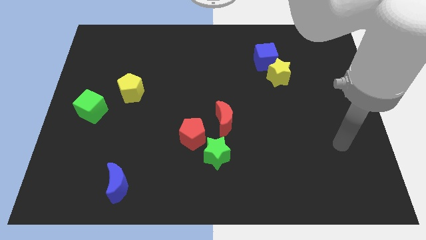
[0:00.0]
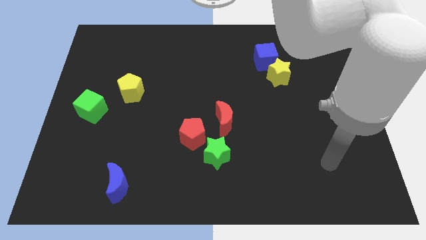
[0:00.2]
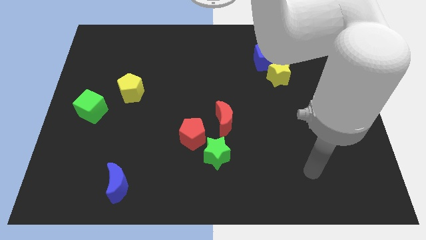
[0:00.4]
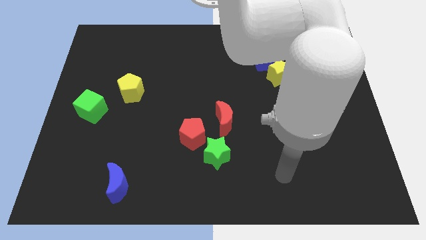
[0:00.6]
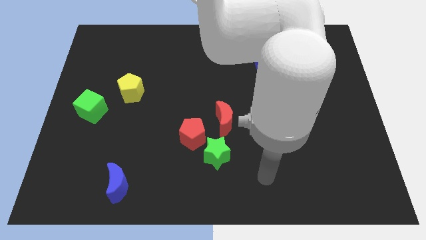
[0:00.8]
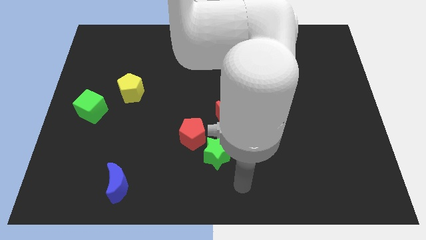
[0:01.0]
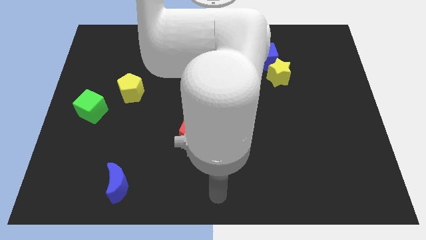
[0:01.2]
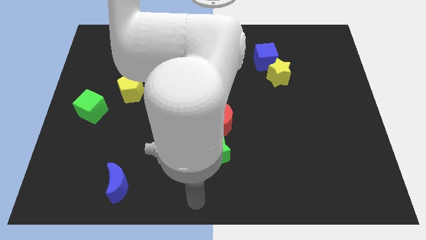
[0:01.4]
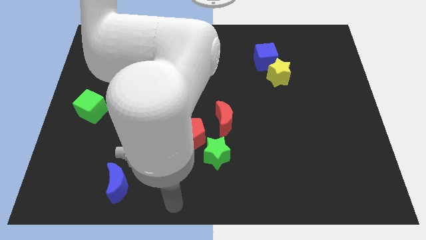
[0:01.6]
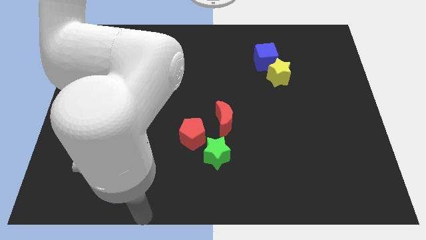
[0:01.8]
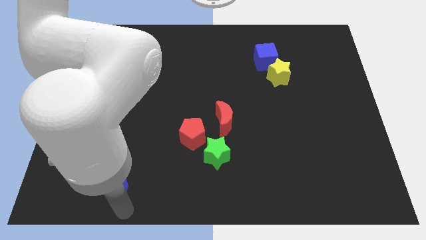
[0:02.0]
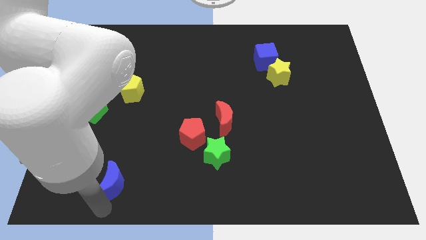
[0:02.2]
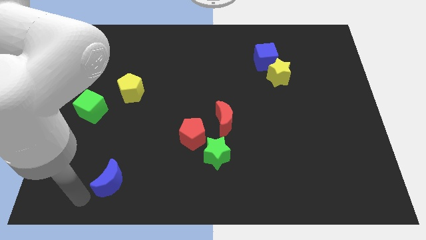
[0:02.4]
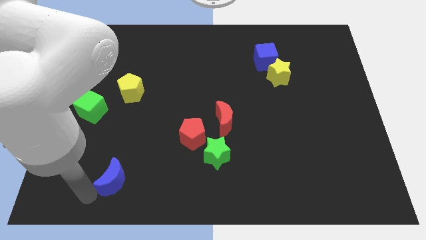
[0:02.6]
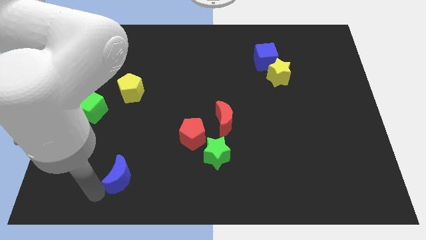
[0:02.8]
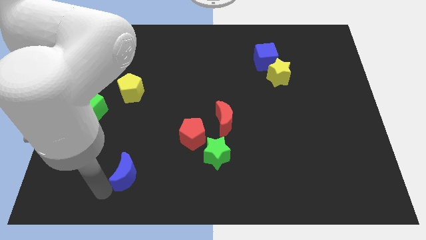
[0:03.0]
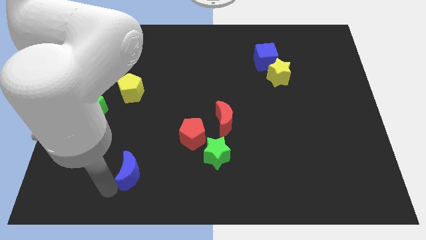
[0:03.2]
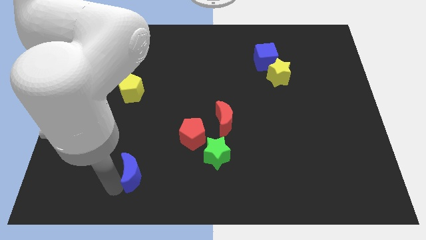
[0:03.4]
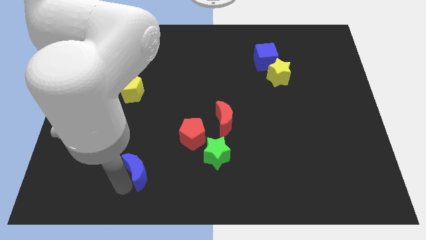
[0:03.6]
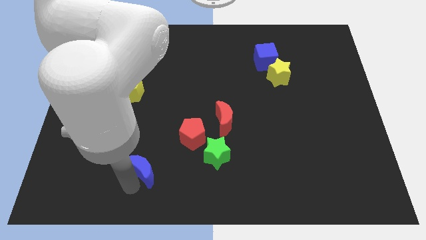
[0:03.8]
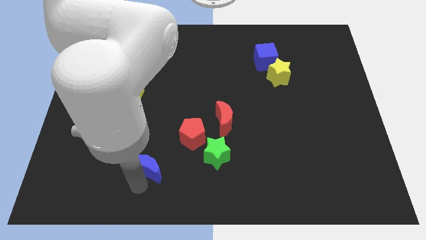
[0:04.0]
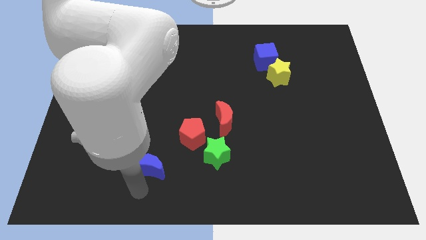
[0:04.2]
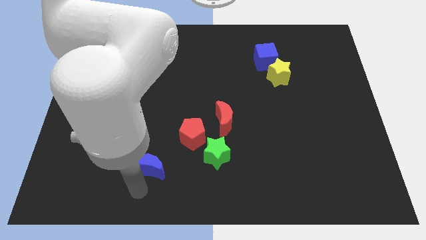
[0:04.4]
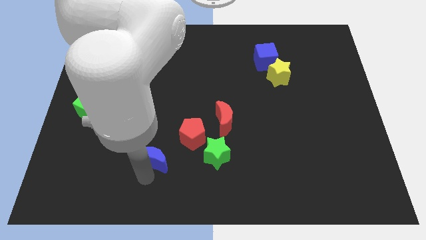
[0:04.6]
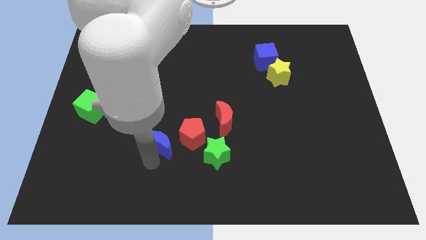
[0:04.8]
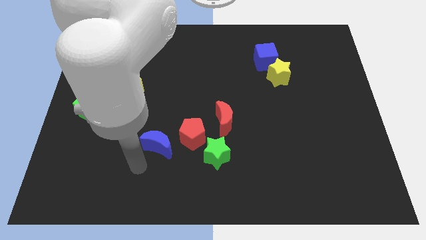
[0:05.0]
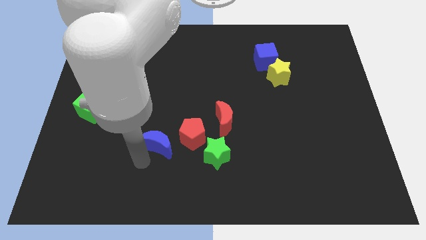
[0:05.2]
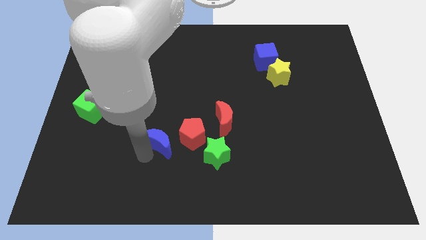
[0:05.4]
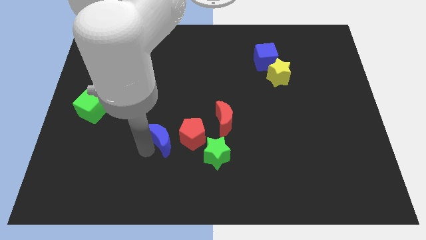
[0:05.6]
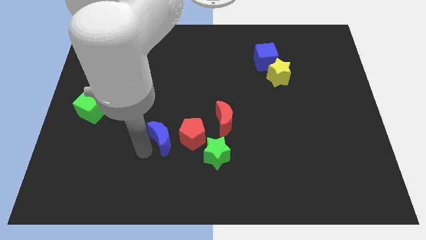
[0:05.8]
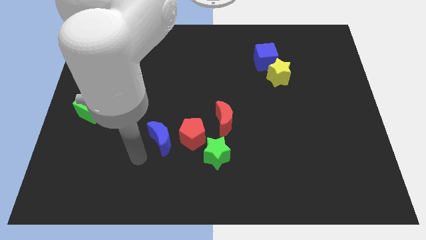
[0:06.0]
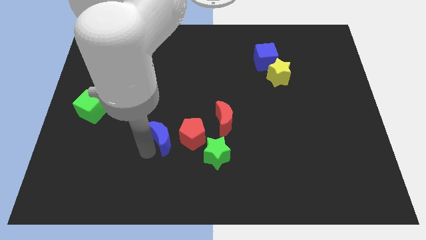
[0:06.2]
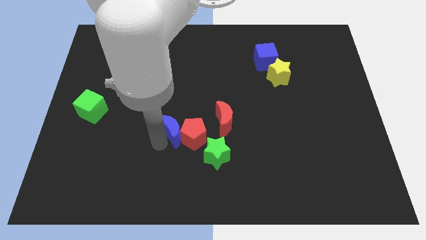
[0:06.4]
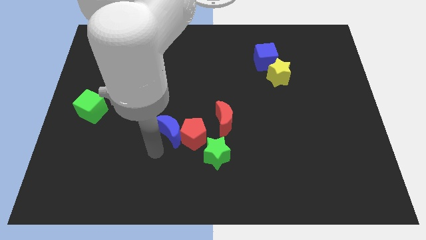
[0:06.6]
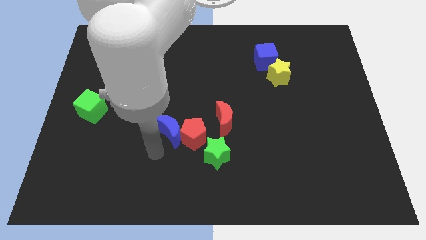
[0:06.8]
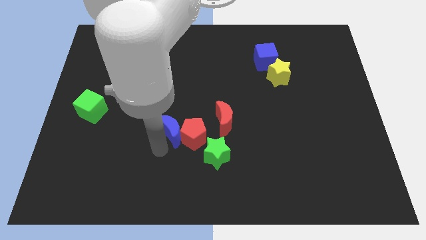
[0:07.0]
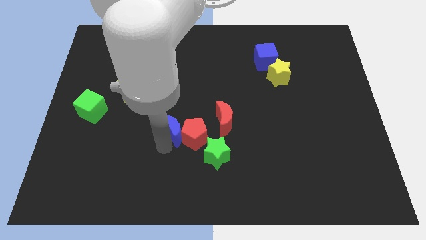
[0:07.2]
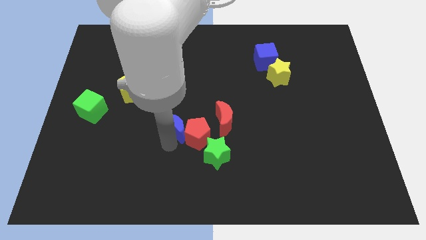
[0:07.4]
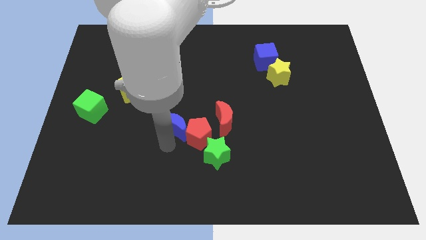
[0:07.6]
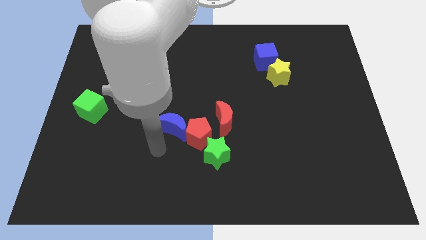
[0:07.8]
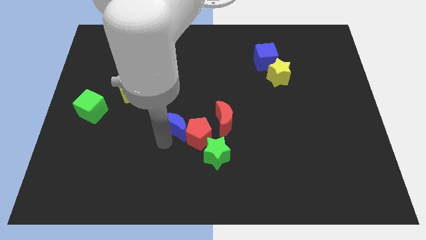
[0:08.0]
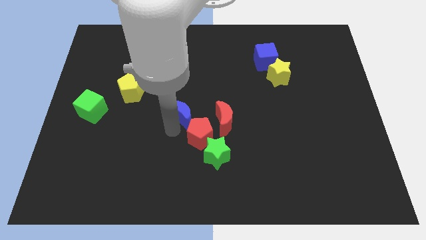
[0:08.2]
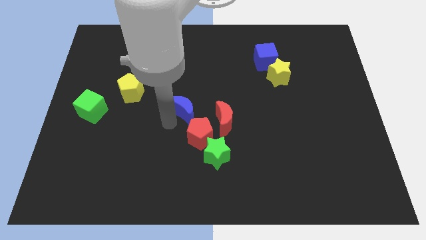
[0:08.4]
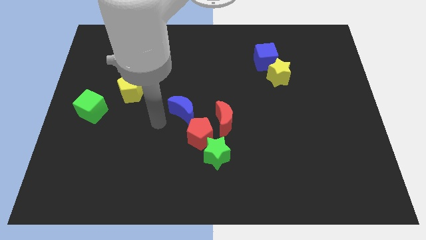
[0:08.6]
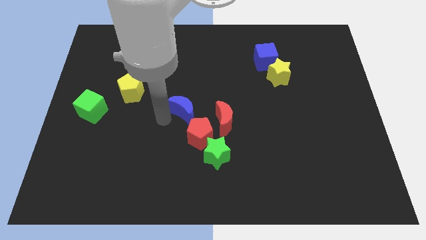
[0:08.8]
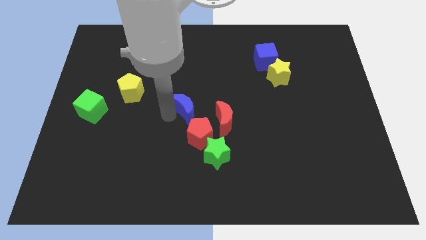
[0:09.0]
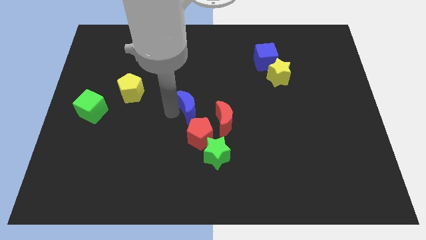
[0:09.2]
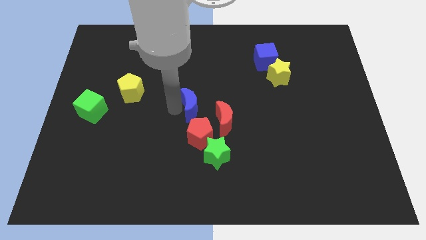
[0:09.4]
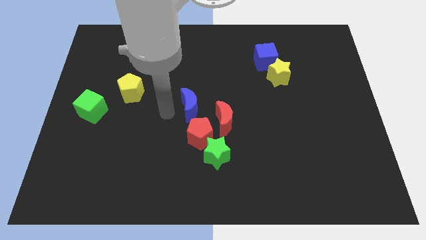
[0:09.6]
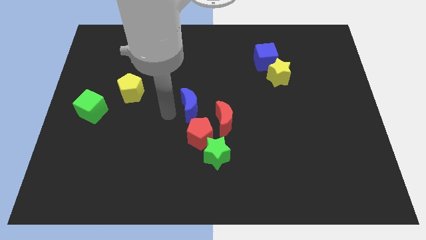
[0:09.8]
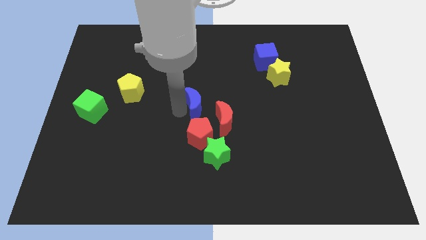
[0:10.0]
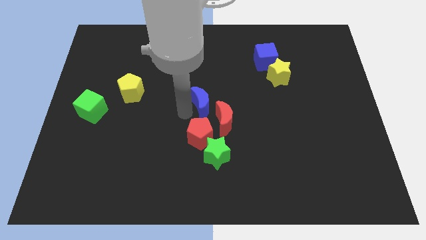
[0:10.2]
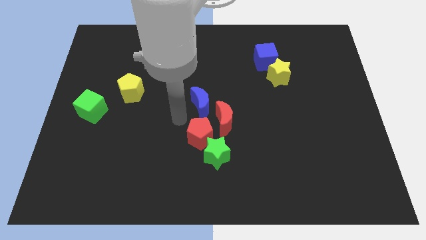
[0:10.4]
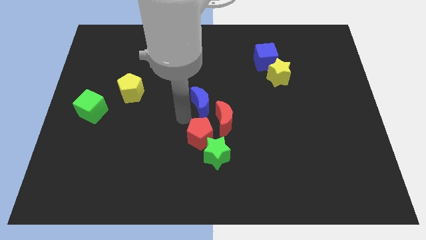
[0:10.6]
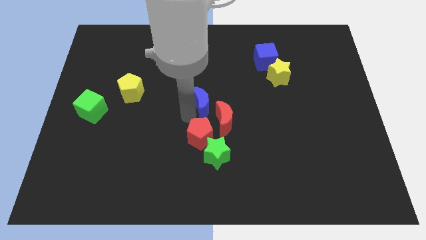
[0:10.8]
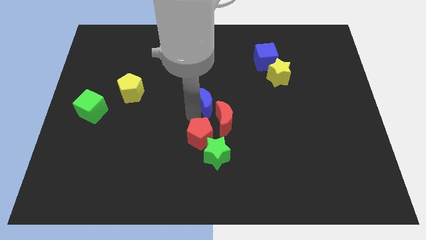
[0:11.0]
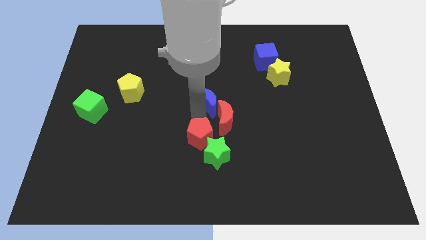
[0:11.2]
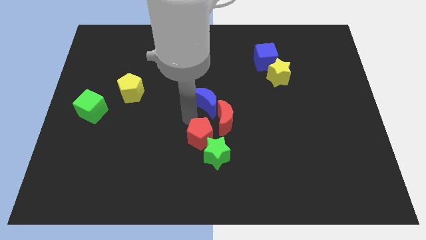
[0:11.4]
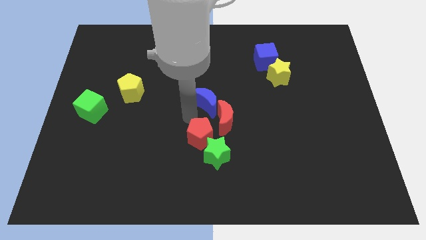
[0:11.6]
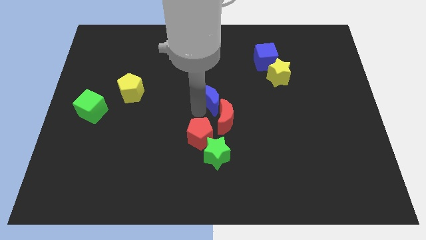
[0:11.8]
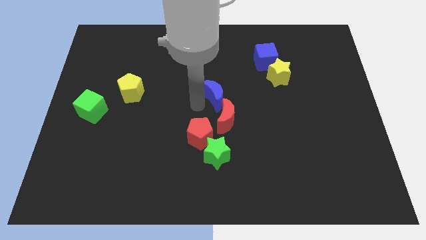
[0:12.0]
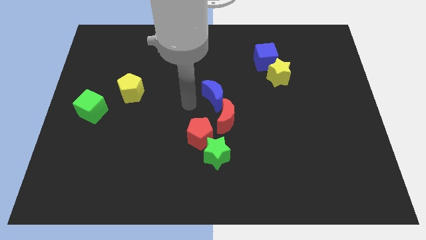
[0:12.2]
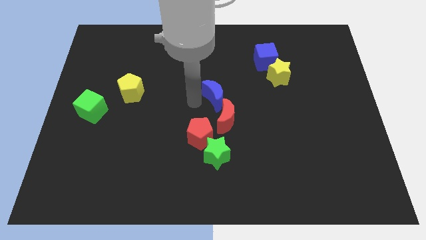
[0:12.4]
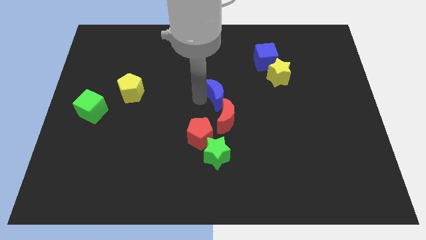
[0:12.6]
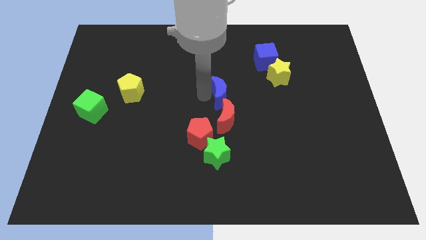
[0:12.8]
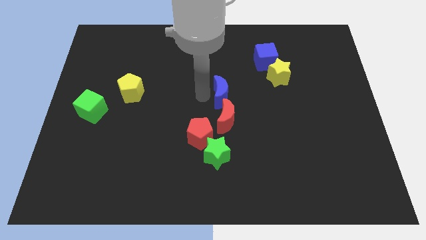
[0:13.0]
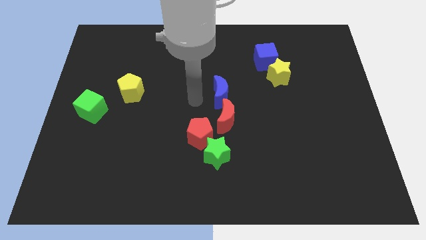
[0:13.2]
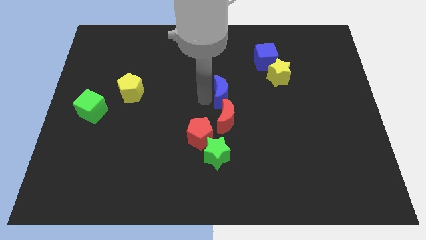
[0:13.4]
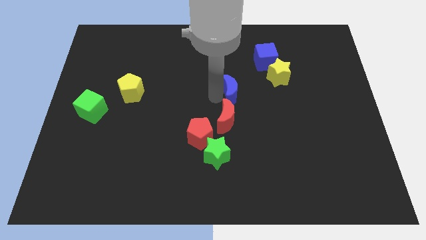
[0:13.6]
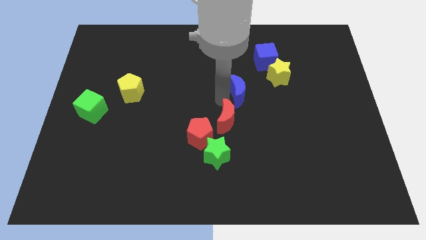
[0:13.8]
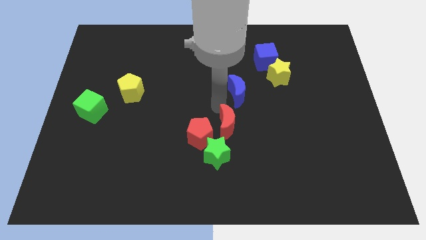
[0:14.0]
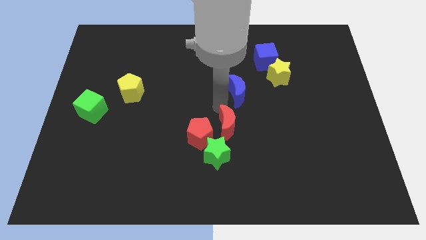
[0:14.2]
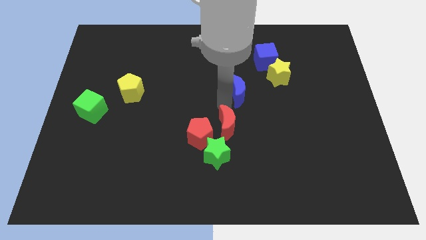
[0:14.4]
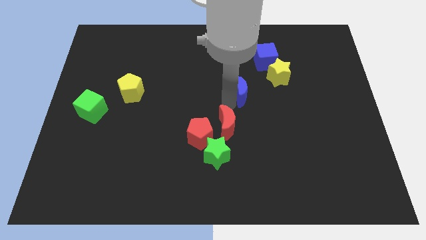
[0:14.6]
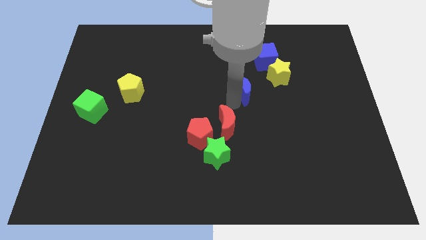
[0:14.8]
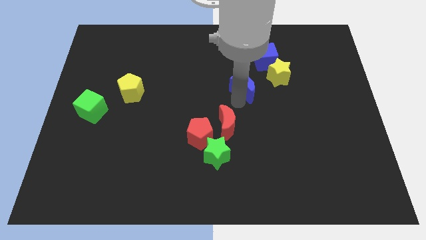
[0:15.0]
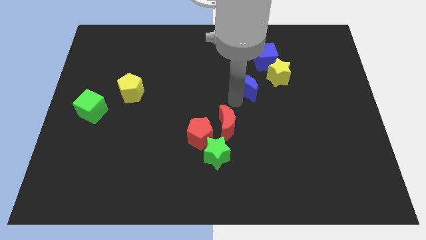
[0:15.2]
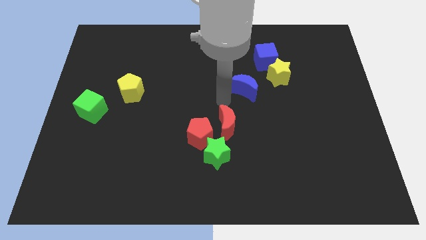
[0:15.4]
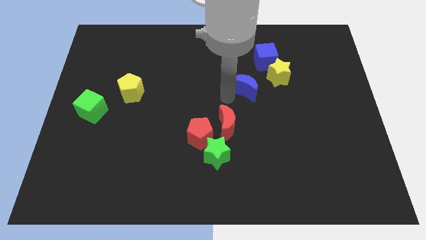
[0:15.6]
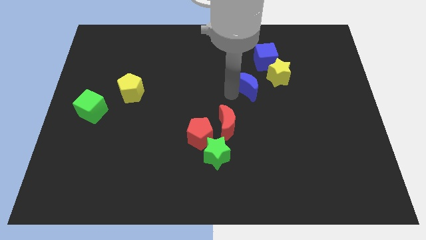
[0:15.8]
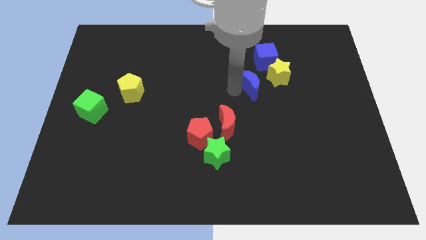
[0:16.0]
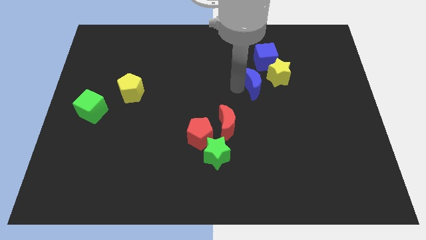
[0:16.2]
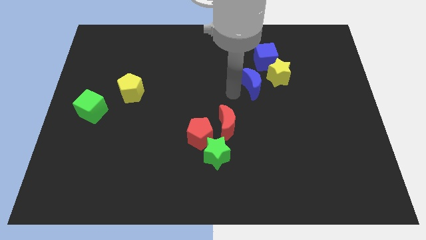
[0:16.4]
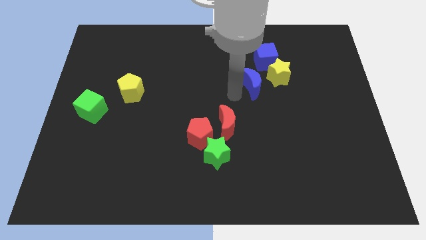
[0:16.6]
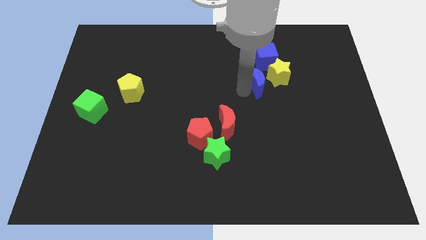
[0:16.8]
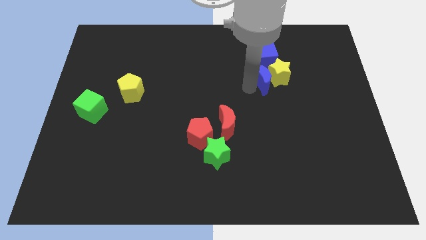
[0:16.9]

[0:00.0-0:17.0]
move the blue moon close to the yellow star
